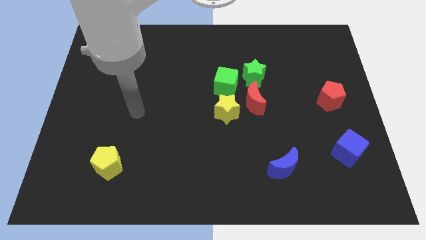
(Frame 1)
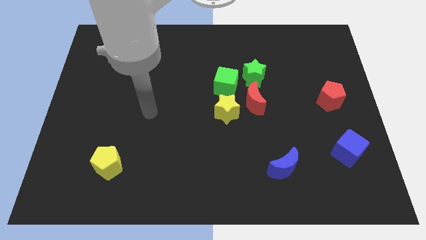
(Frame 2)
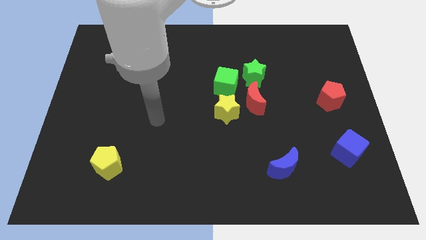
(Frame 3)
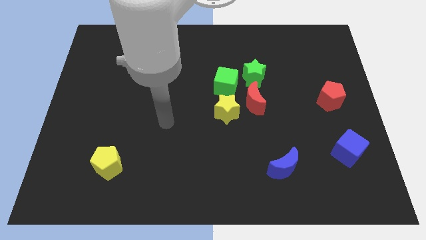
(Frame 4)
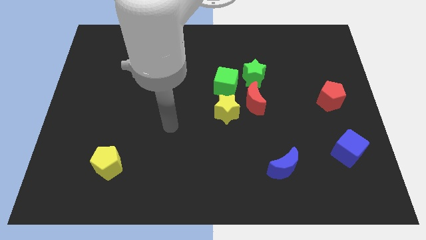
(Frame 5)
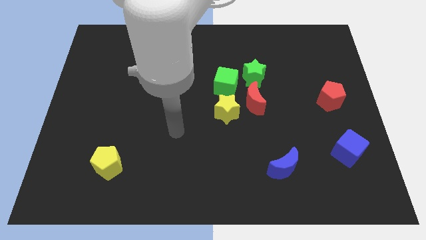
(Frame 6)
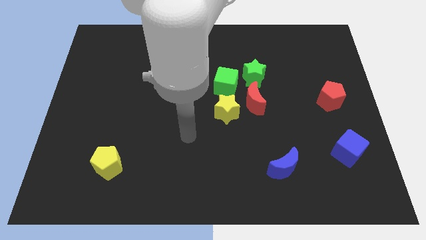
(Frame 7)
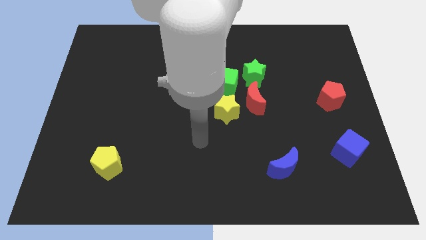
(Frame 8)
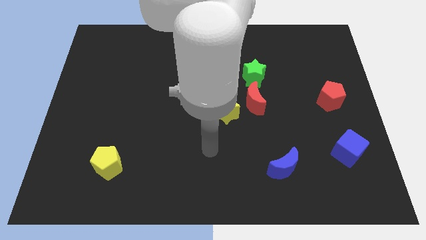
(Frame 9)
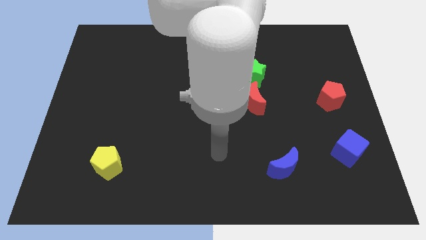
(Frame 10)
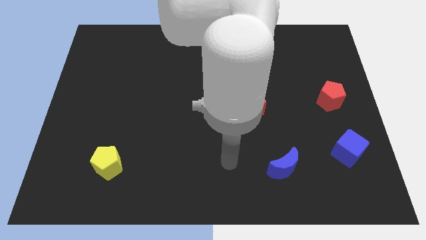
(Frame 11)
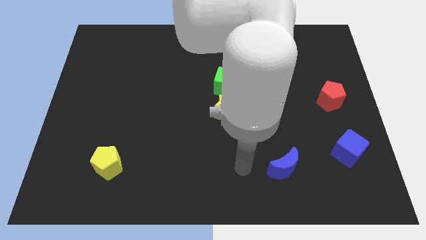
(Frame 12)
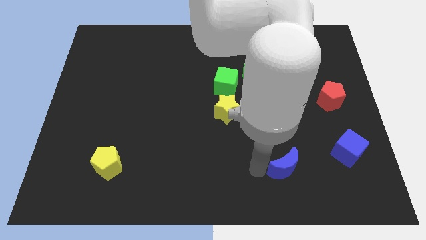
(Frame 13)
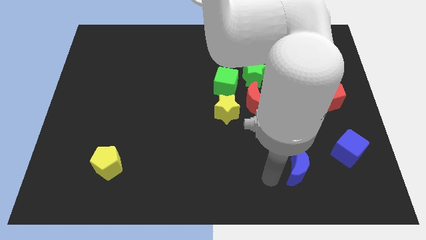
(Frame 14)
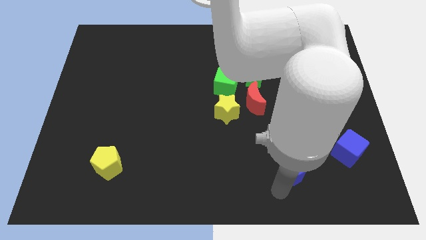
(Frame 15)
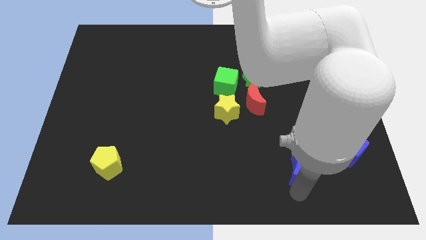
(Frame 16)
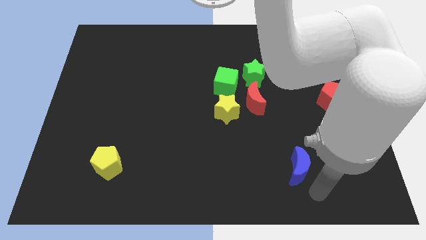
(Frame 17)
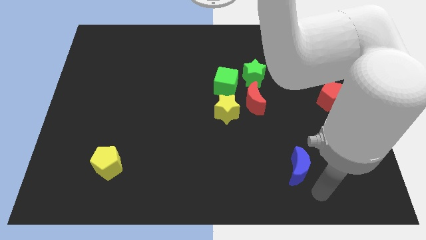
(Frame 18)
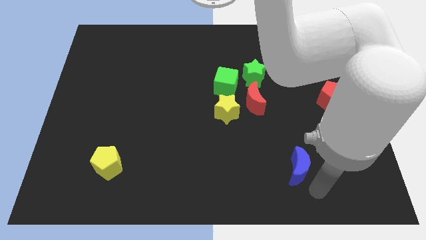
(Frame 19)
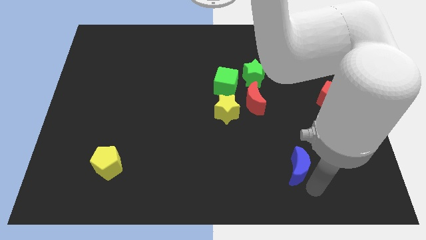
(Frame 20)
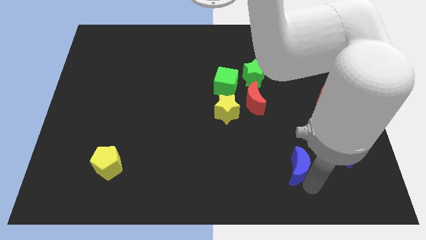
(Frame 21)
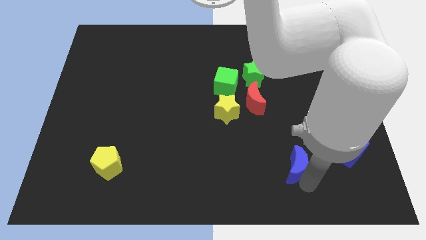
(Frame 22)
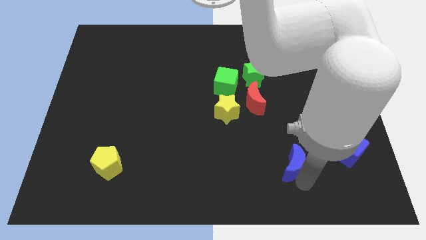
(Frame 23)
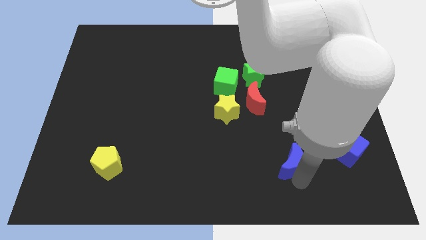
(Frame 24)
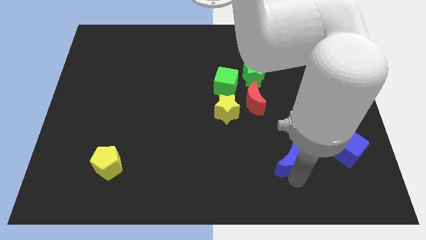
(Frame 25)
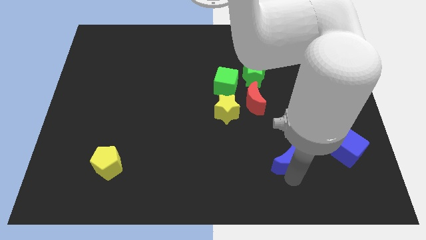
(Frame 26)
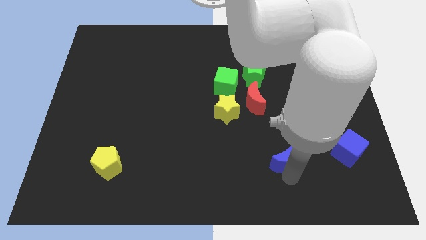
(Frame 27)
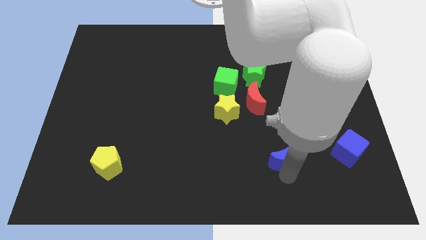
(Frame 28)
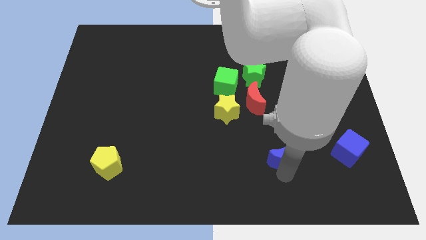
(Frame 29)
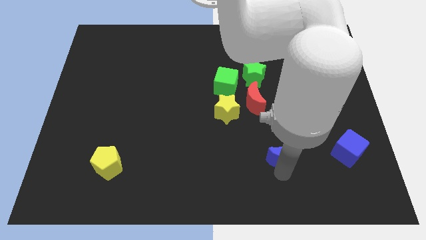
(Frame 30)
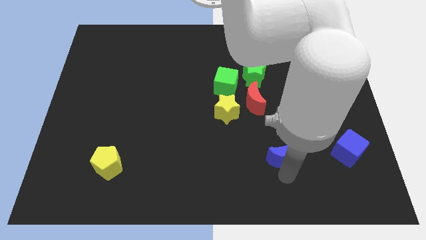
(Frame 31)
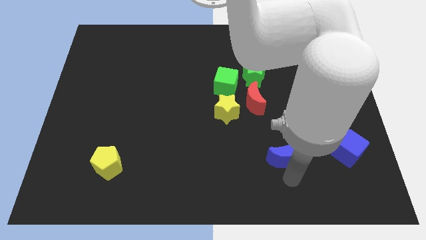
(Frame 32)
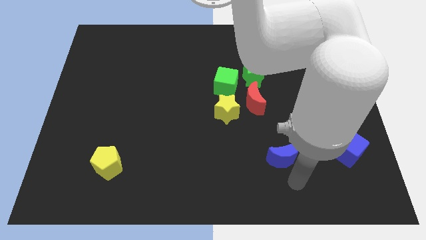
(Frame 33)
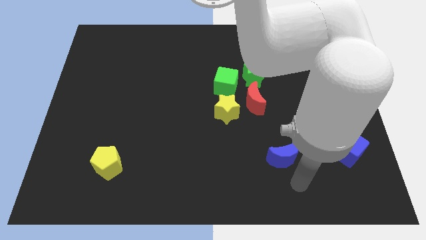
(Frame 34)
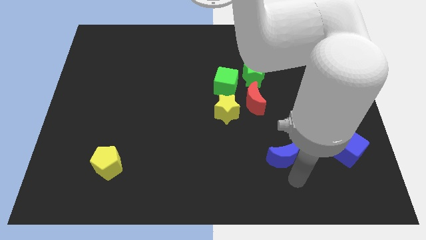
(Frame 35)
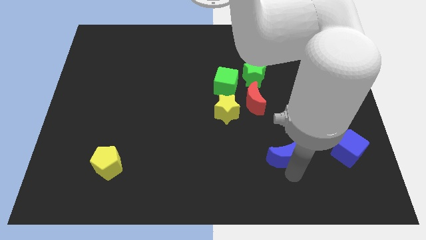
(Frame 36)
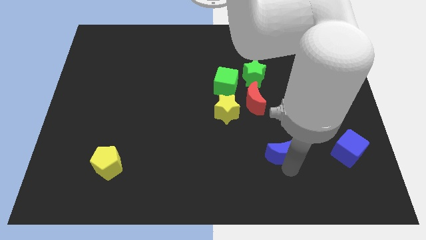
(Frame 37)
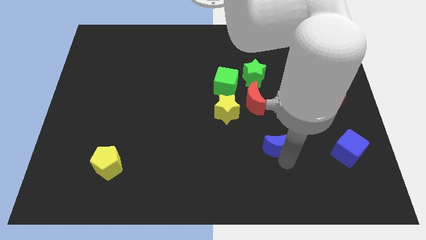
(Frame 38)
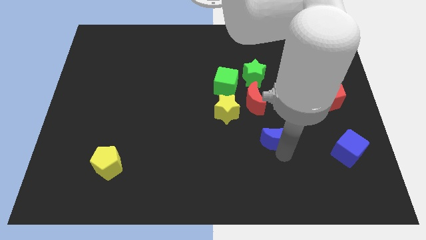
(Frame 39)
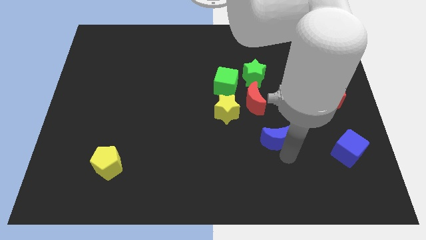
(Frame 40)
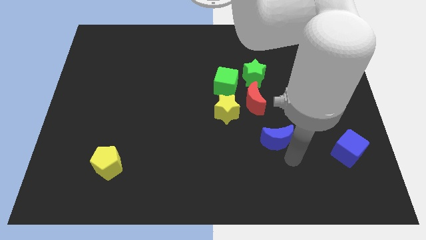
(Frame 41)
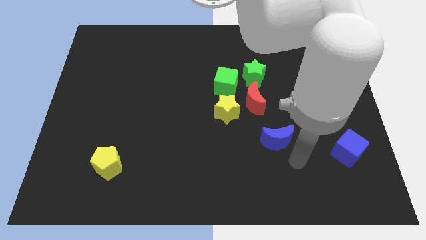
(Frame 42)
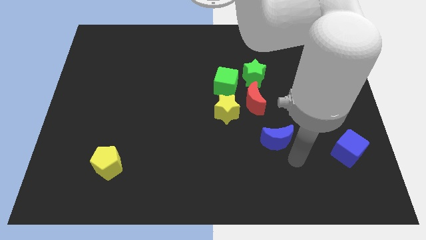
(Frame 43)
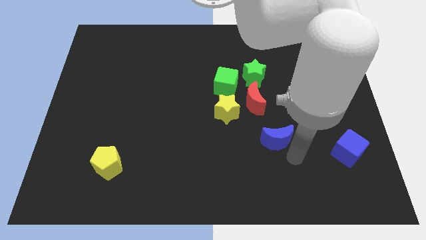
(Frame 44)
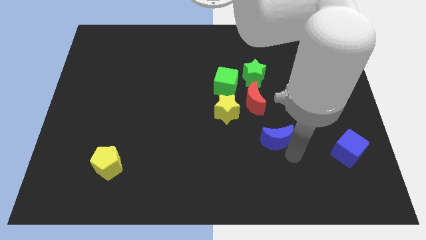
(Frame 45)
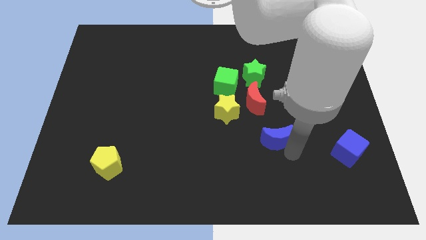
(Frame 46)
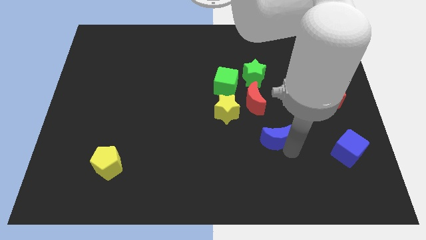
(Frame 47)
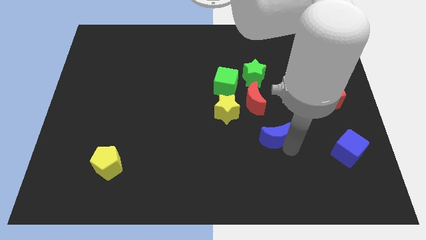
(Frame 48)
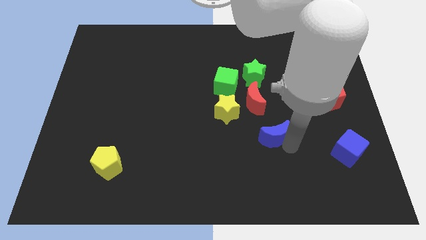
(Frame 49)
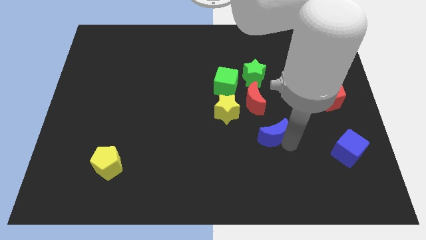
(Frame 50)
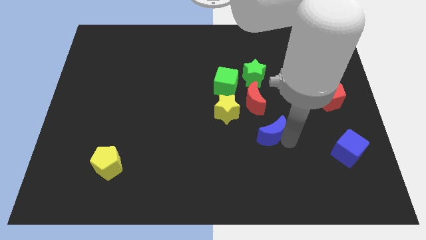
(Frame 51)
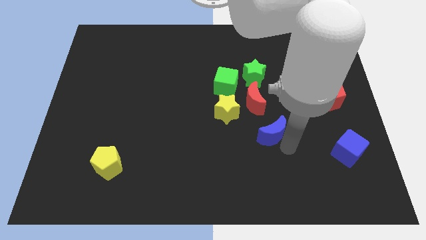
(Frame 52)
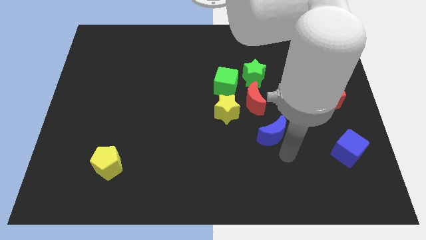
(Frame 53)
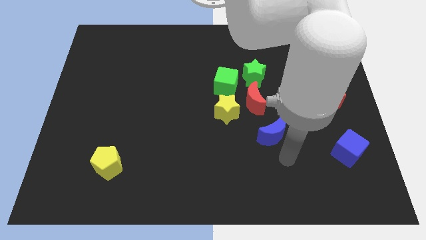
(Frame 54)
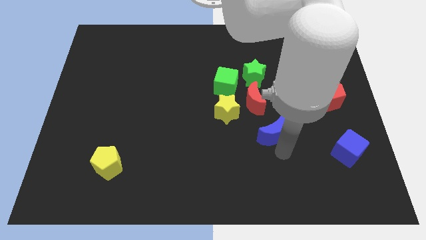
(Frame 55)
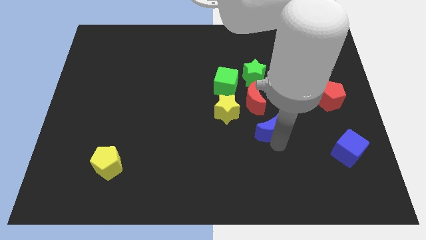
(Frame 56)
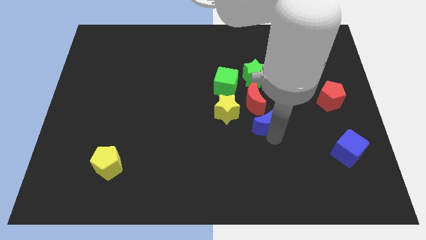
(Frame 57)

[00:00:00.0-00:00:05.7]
push the blue moon to the bottom side of the green star

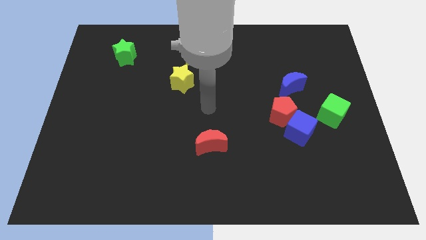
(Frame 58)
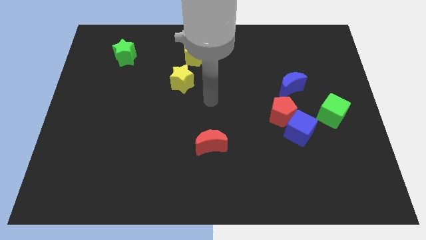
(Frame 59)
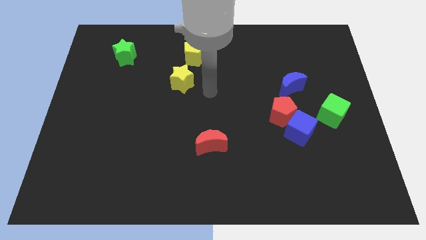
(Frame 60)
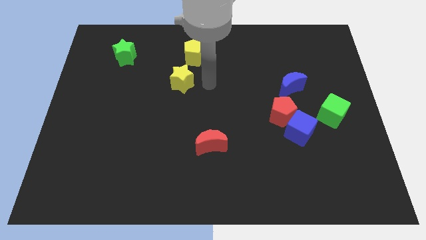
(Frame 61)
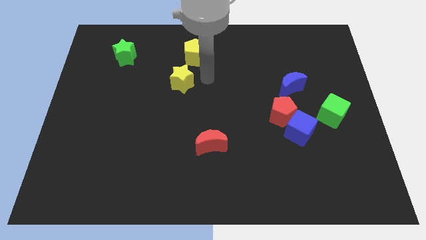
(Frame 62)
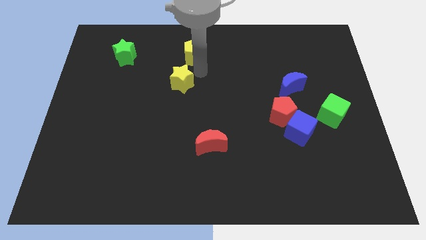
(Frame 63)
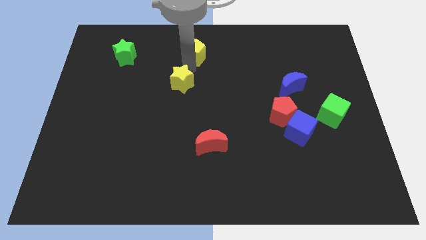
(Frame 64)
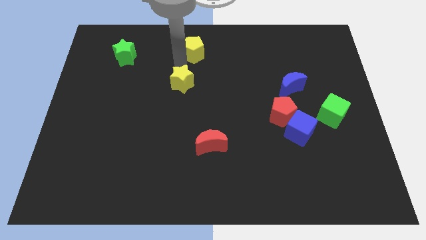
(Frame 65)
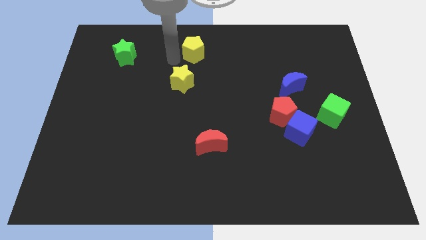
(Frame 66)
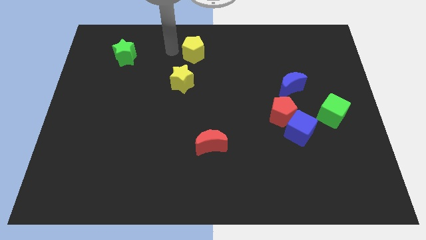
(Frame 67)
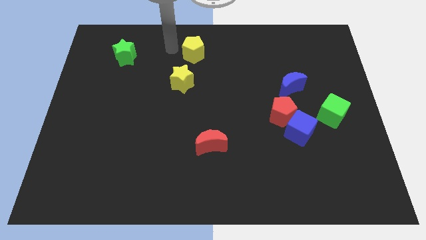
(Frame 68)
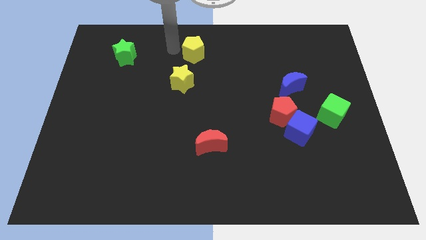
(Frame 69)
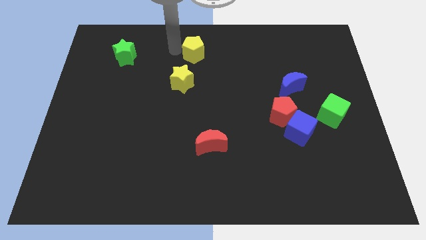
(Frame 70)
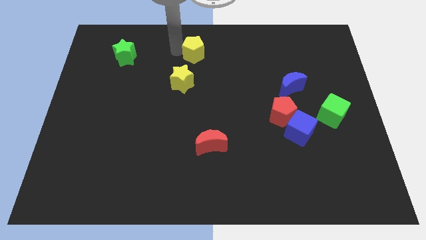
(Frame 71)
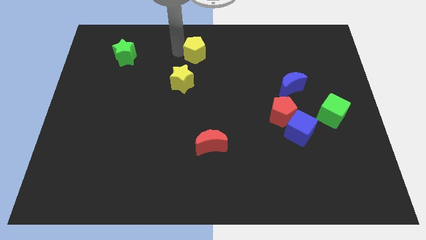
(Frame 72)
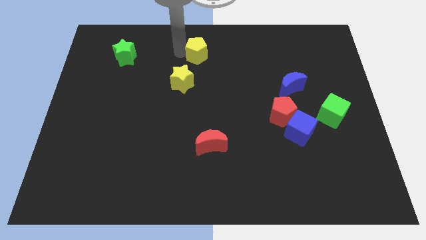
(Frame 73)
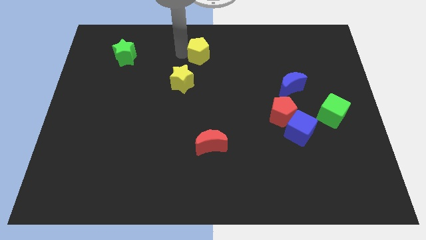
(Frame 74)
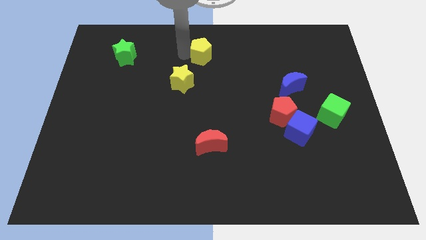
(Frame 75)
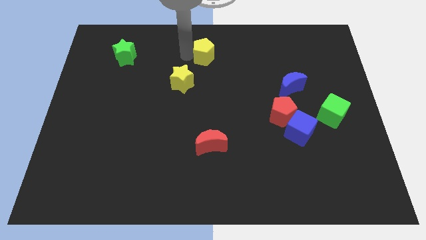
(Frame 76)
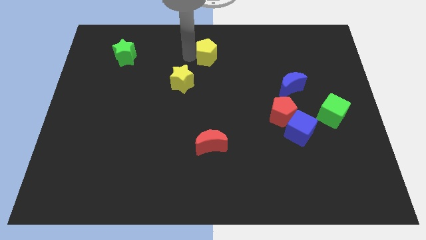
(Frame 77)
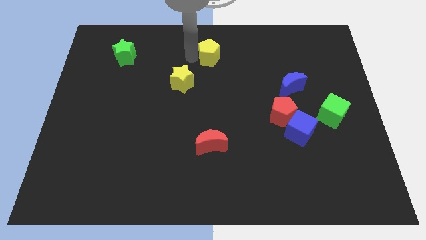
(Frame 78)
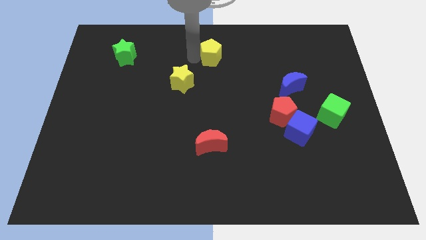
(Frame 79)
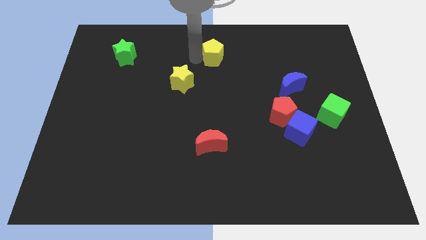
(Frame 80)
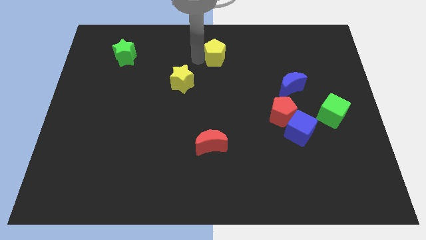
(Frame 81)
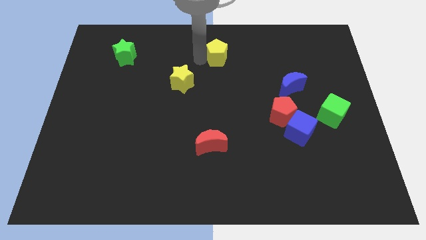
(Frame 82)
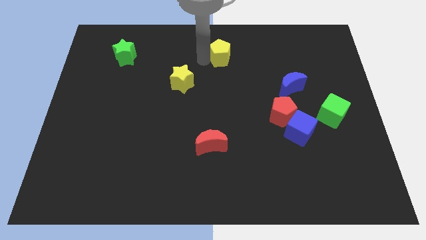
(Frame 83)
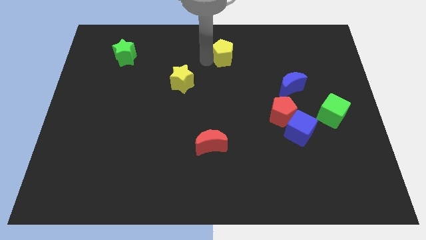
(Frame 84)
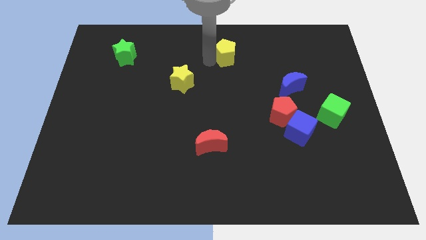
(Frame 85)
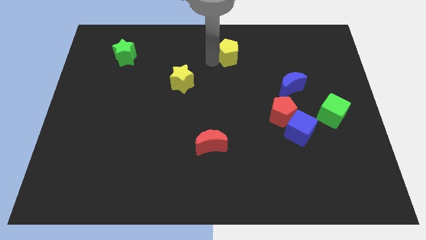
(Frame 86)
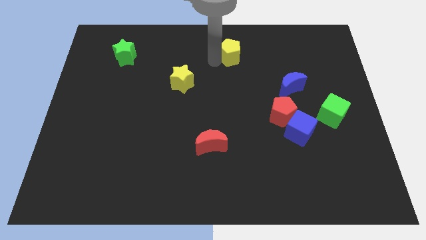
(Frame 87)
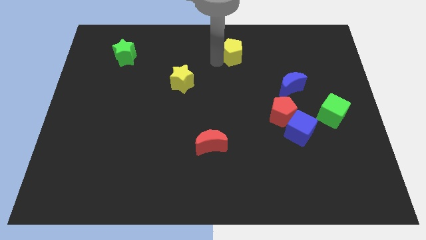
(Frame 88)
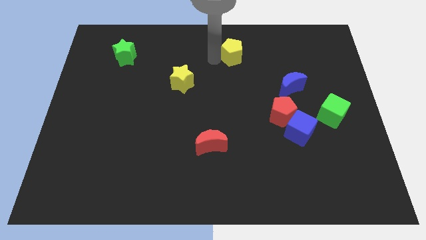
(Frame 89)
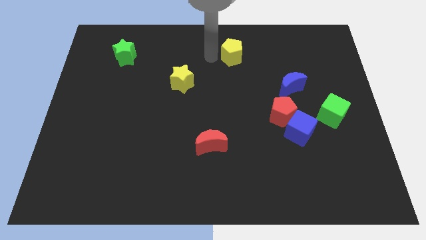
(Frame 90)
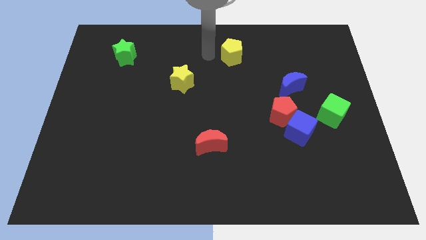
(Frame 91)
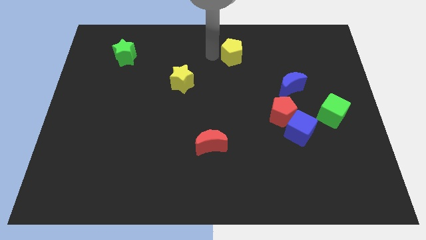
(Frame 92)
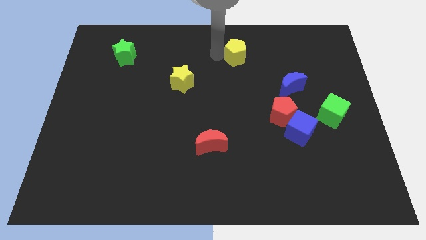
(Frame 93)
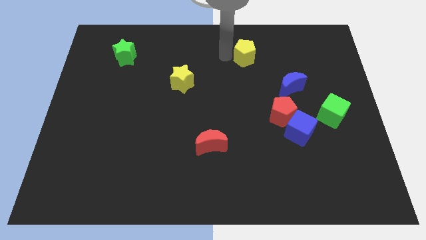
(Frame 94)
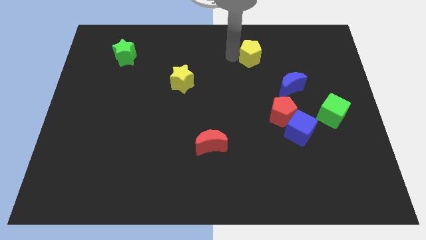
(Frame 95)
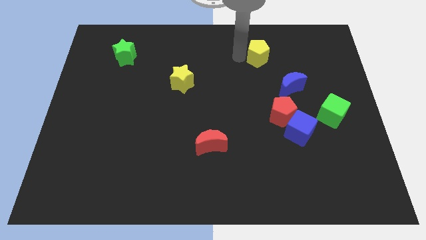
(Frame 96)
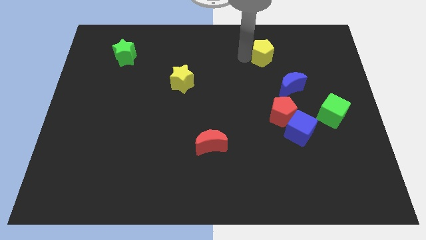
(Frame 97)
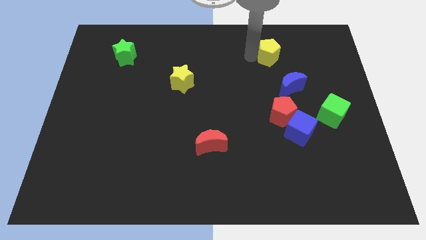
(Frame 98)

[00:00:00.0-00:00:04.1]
push the yellow pentagon to the top of the blue moon
